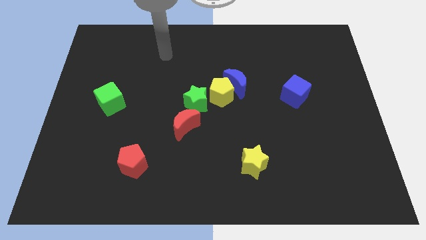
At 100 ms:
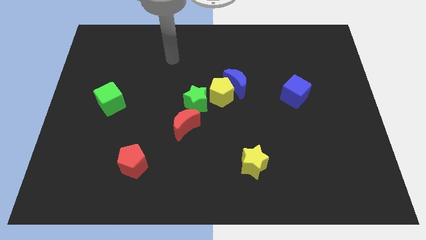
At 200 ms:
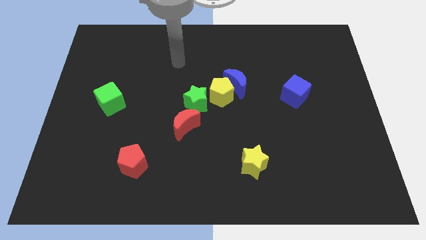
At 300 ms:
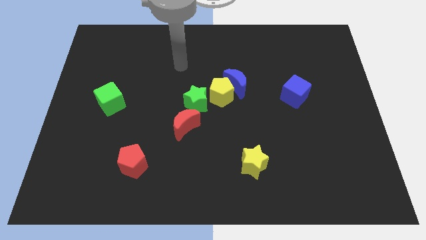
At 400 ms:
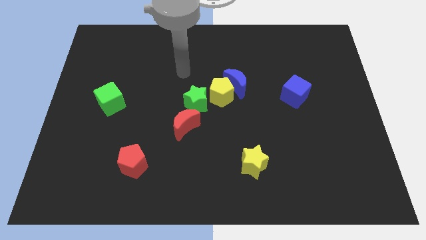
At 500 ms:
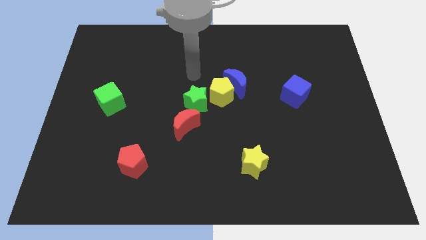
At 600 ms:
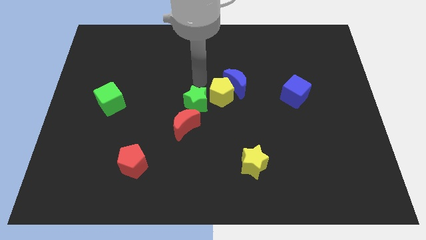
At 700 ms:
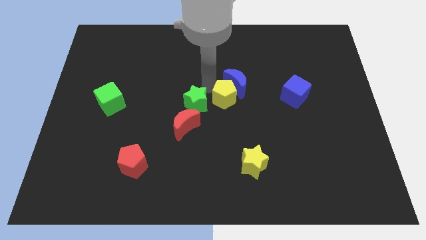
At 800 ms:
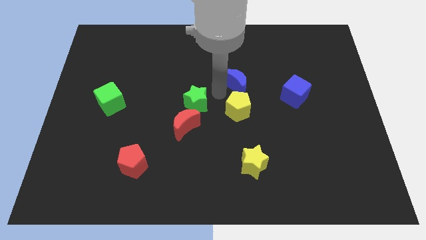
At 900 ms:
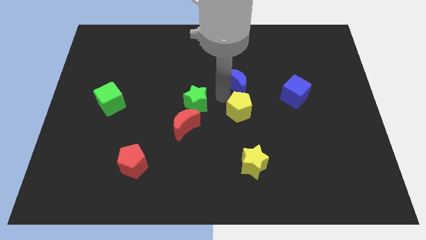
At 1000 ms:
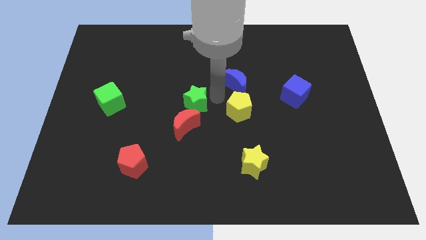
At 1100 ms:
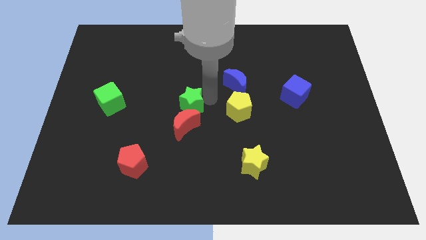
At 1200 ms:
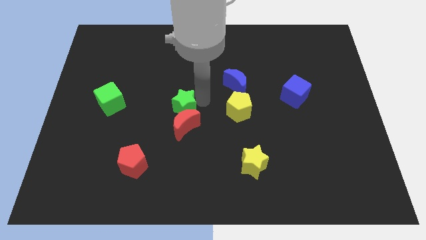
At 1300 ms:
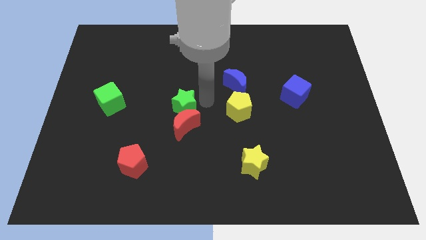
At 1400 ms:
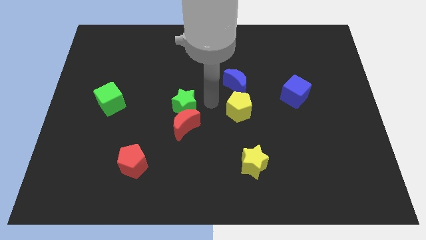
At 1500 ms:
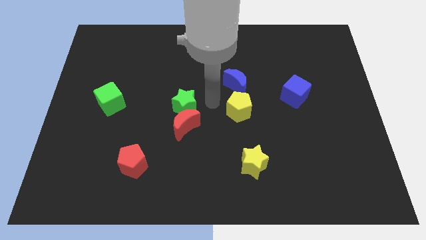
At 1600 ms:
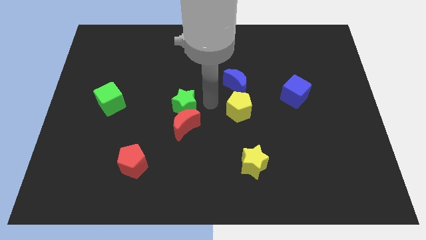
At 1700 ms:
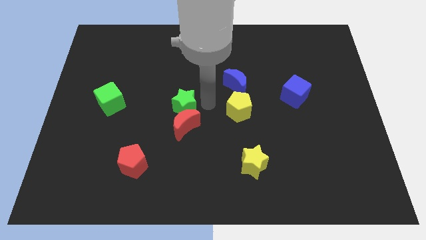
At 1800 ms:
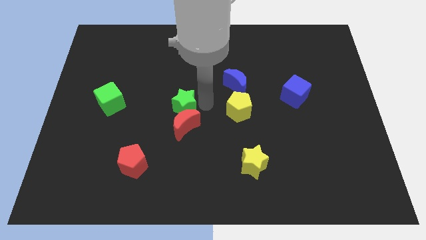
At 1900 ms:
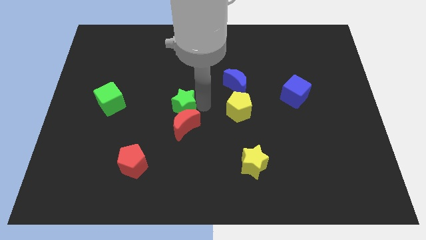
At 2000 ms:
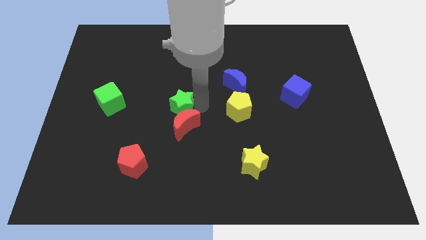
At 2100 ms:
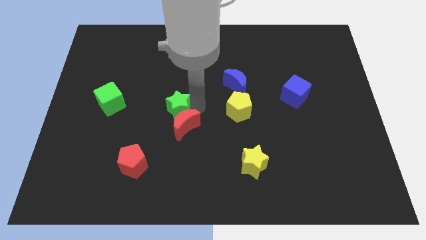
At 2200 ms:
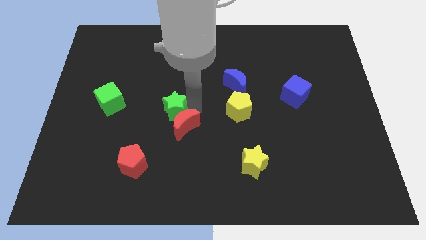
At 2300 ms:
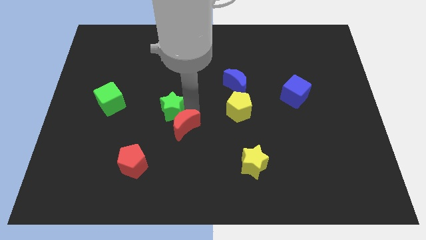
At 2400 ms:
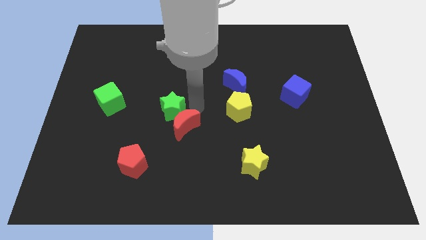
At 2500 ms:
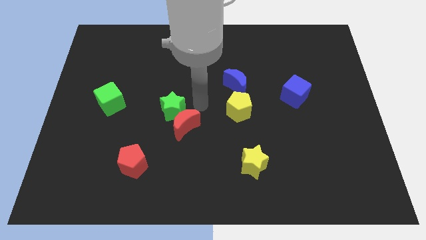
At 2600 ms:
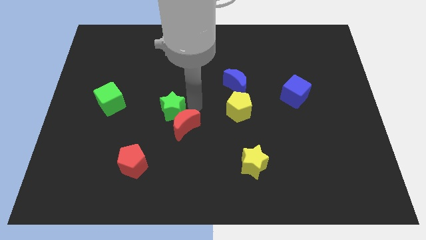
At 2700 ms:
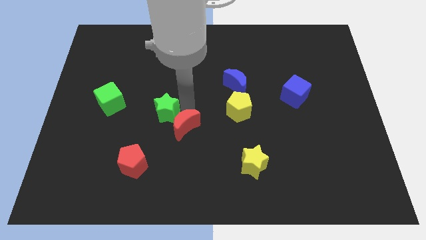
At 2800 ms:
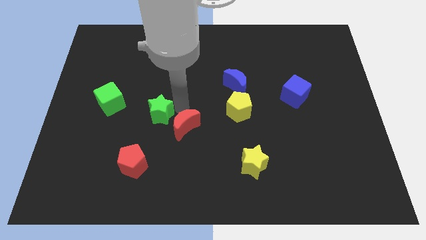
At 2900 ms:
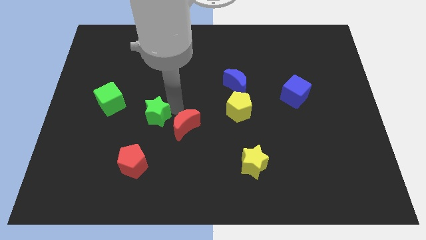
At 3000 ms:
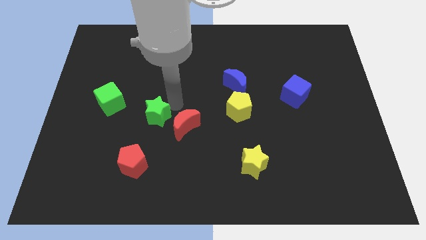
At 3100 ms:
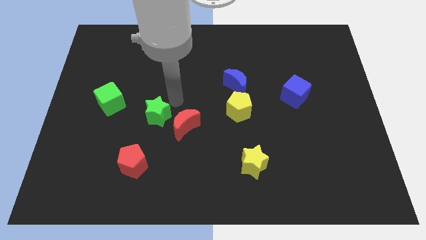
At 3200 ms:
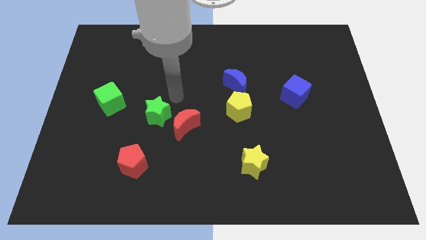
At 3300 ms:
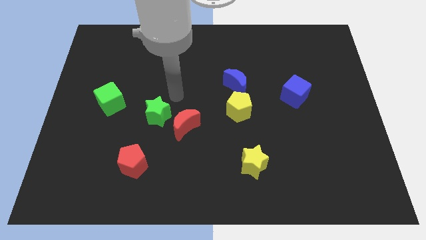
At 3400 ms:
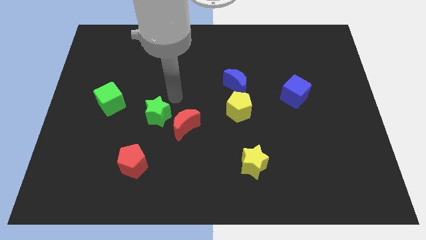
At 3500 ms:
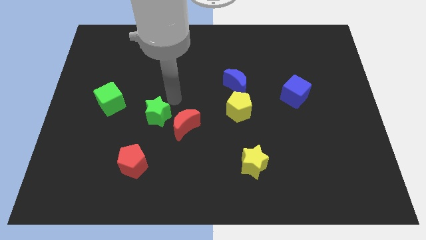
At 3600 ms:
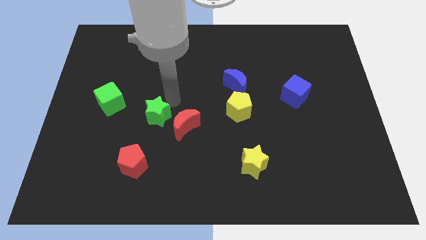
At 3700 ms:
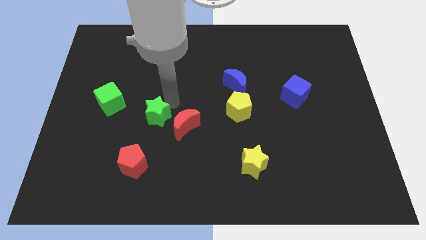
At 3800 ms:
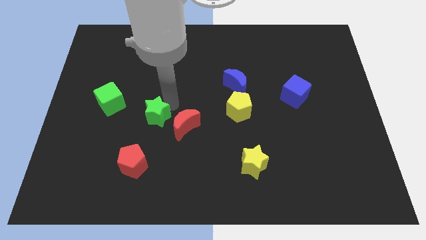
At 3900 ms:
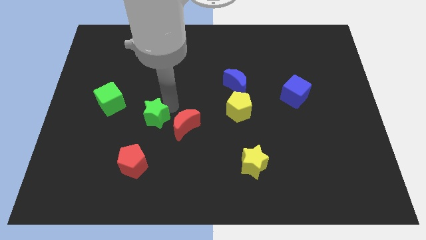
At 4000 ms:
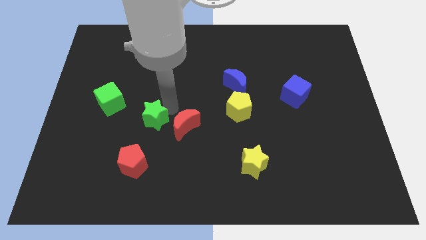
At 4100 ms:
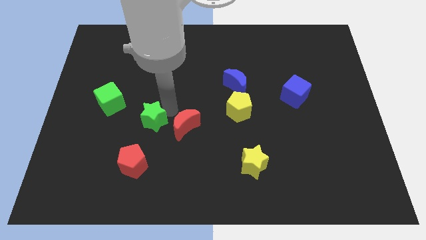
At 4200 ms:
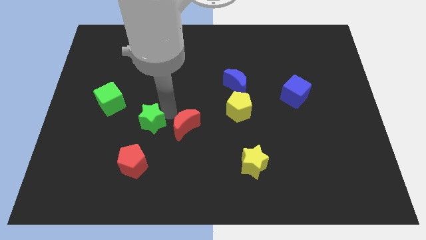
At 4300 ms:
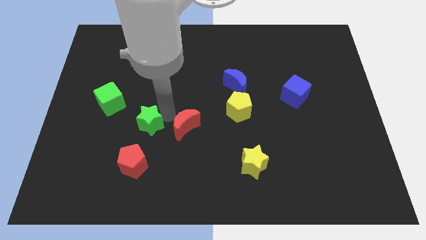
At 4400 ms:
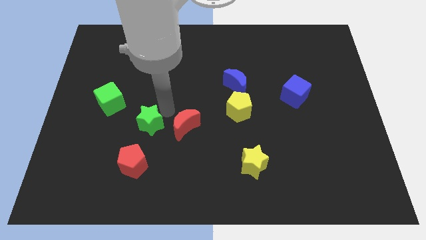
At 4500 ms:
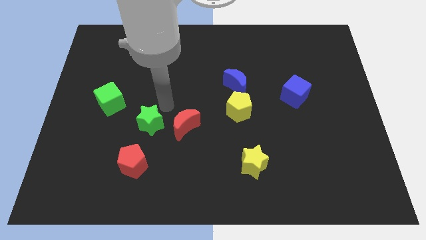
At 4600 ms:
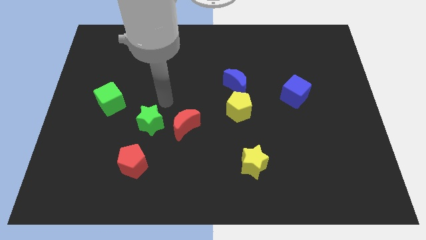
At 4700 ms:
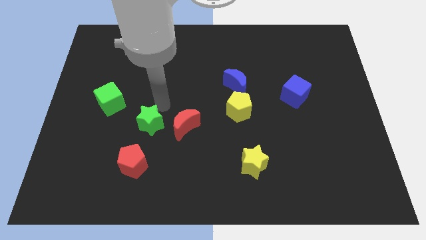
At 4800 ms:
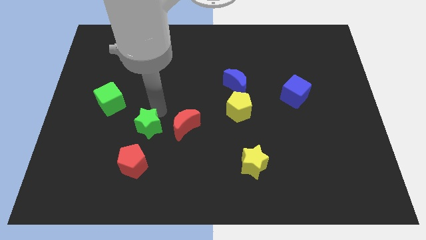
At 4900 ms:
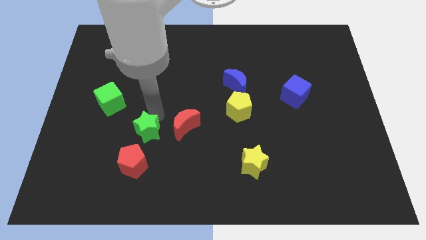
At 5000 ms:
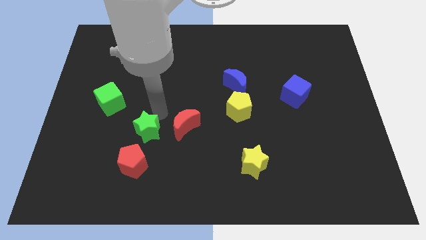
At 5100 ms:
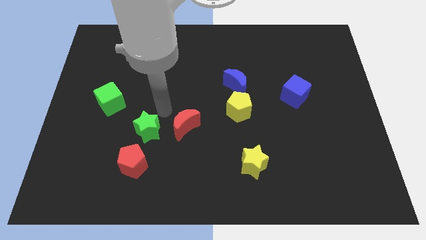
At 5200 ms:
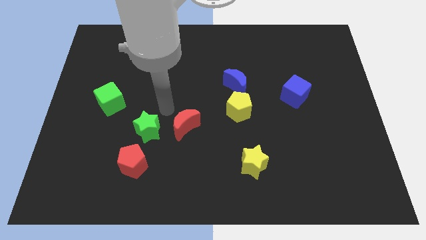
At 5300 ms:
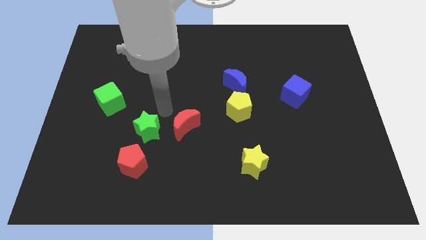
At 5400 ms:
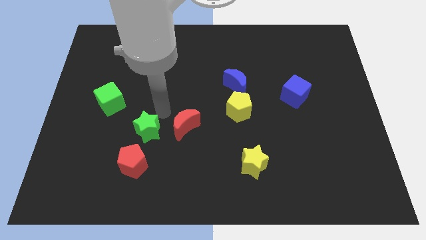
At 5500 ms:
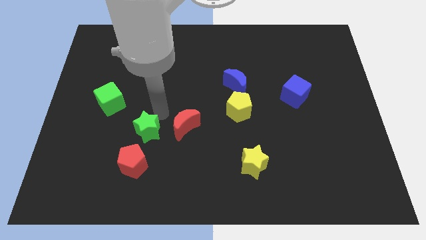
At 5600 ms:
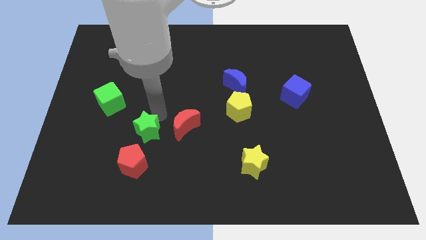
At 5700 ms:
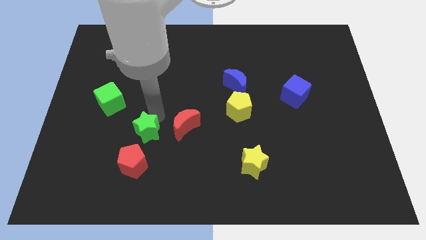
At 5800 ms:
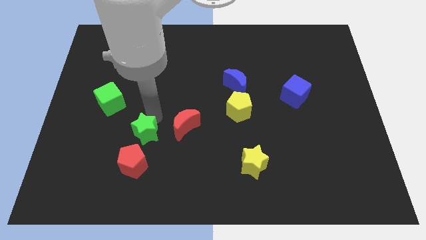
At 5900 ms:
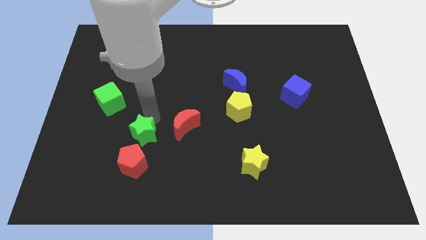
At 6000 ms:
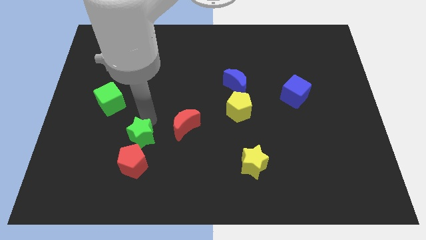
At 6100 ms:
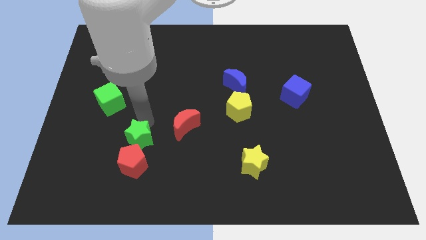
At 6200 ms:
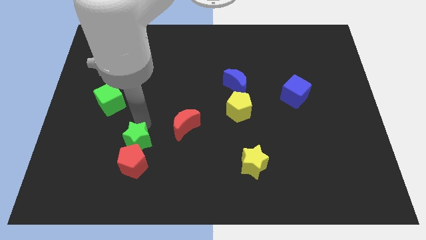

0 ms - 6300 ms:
push the green star close to the red pentagon
